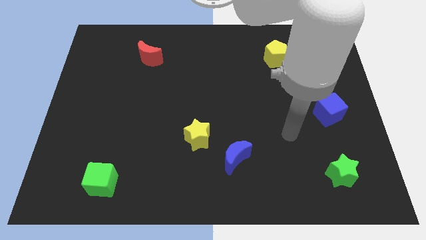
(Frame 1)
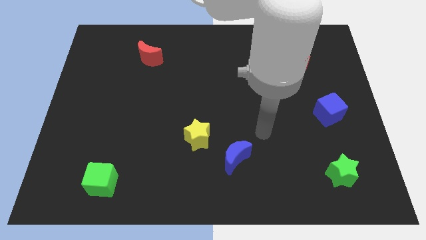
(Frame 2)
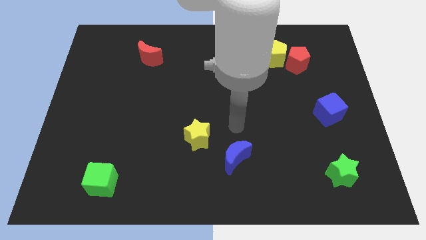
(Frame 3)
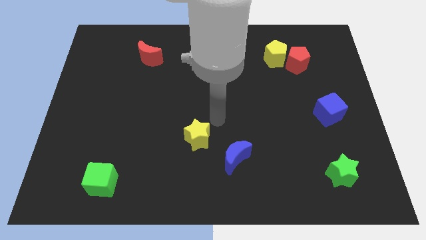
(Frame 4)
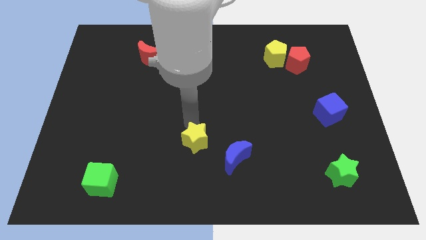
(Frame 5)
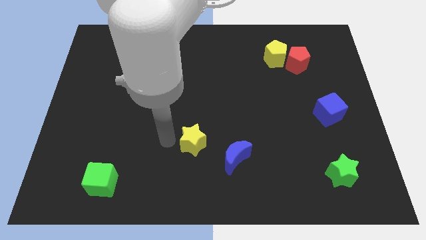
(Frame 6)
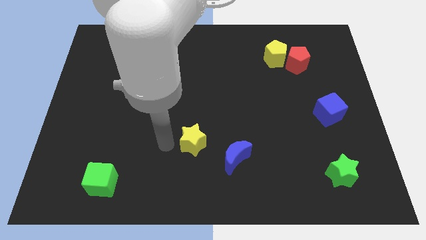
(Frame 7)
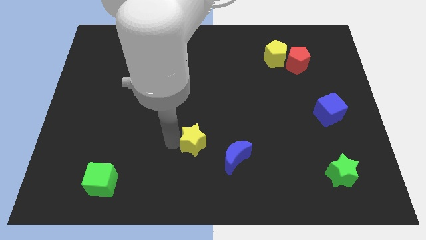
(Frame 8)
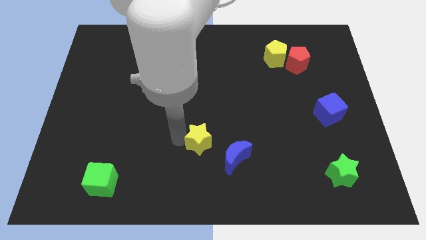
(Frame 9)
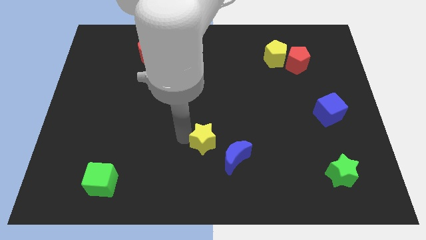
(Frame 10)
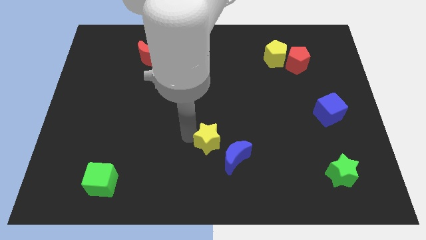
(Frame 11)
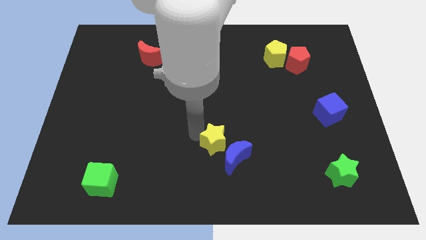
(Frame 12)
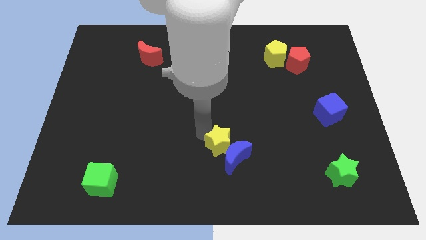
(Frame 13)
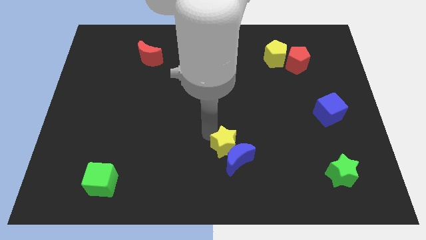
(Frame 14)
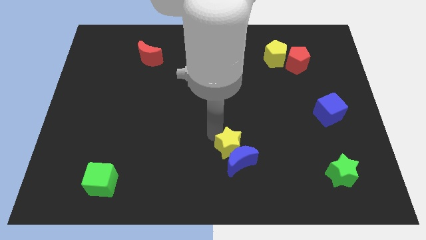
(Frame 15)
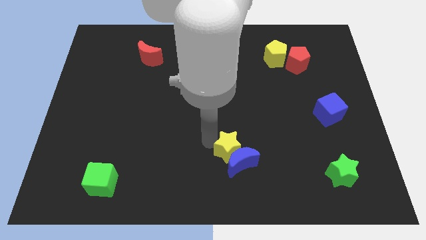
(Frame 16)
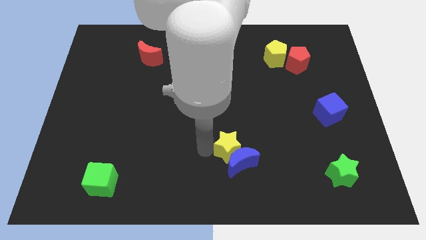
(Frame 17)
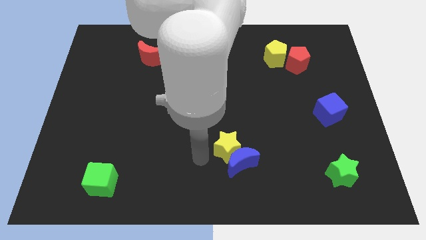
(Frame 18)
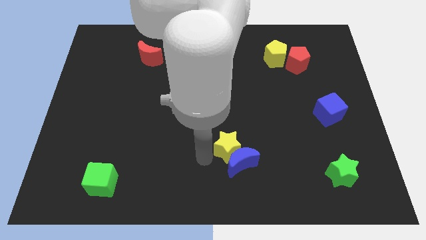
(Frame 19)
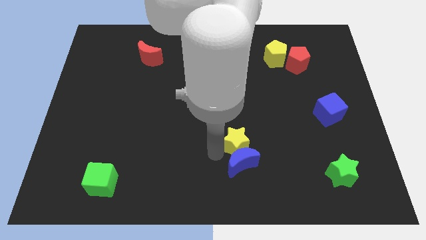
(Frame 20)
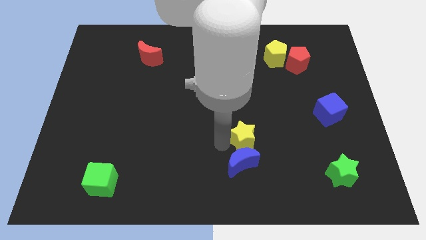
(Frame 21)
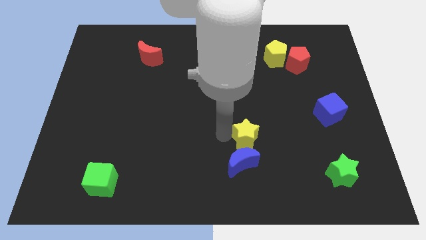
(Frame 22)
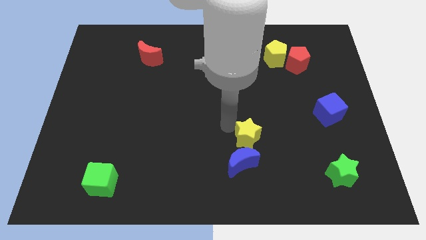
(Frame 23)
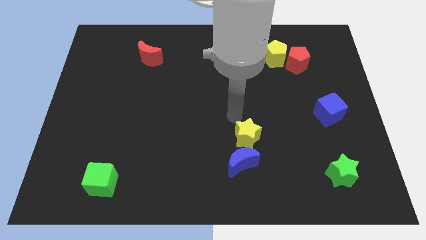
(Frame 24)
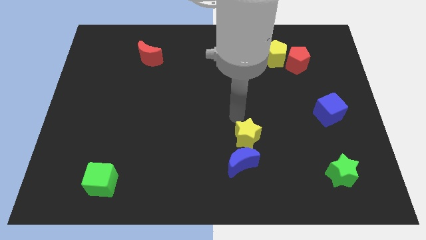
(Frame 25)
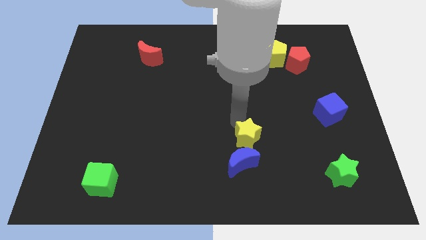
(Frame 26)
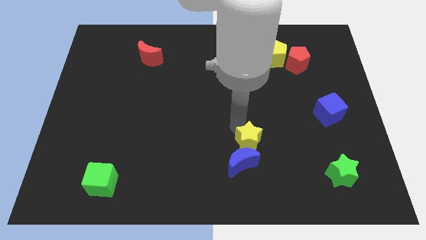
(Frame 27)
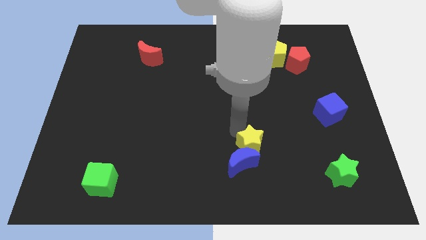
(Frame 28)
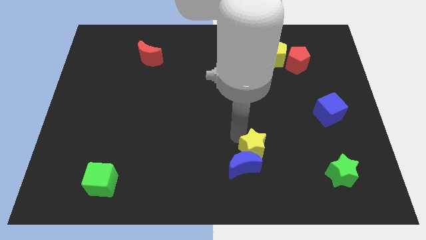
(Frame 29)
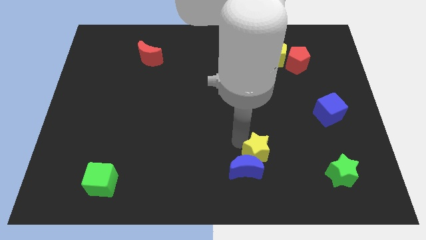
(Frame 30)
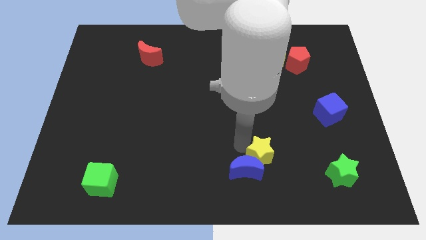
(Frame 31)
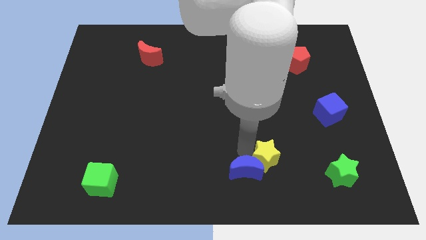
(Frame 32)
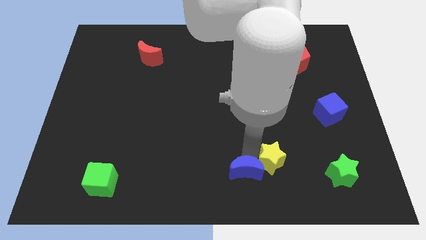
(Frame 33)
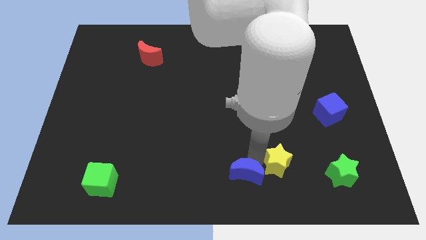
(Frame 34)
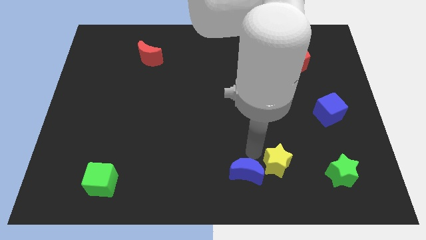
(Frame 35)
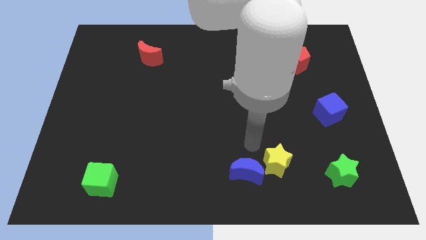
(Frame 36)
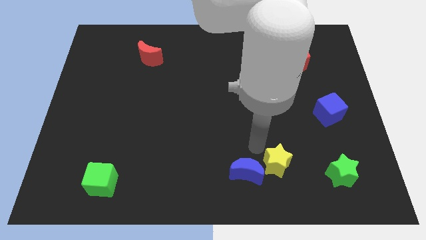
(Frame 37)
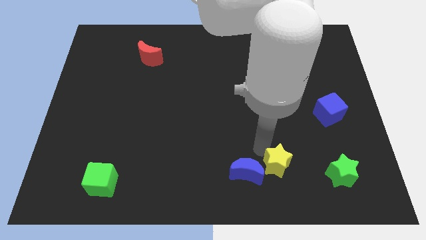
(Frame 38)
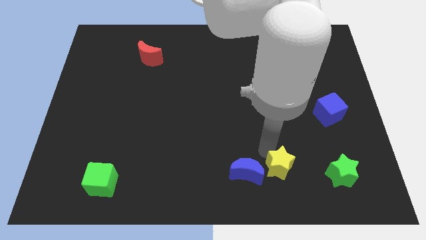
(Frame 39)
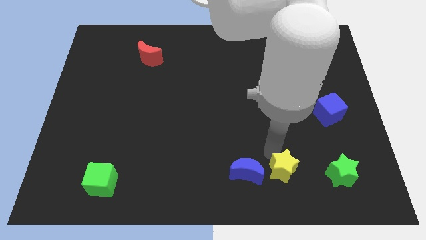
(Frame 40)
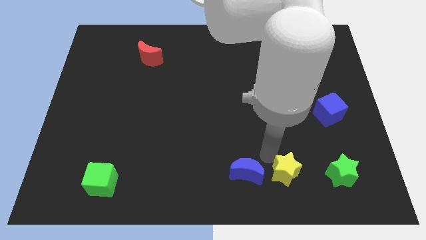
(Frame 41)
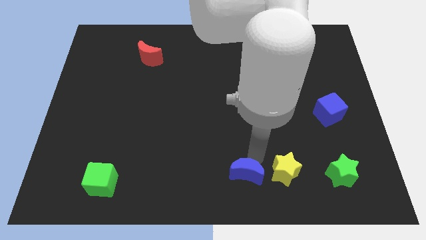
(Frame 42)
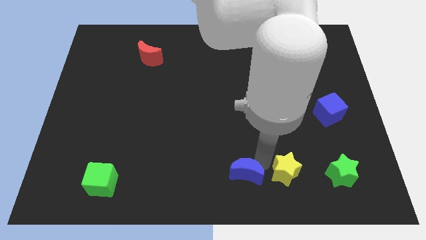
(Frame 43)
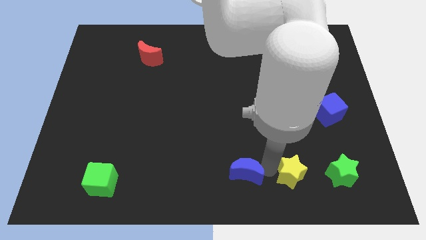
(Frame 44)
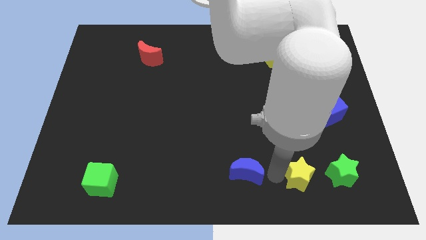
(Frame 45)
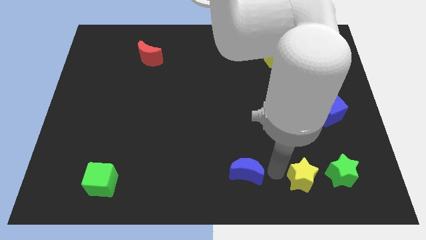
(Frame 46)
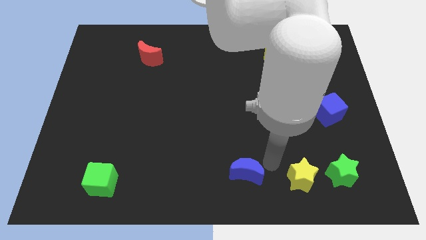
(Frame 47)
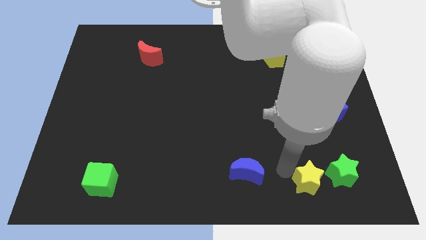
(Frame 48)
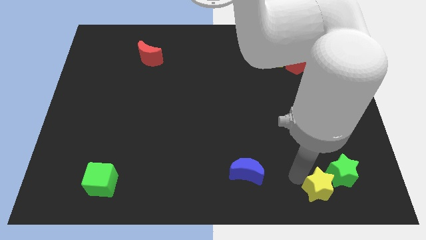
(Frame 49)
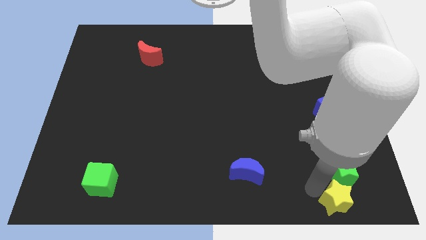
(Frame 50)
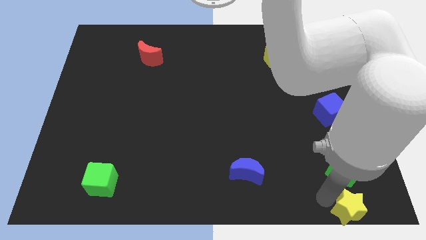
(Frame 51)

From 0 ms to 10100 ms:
push the yellow star to the bottom right

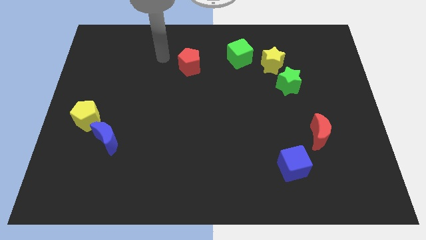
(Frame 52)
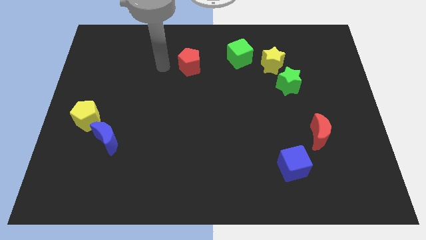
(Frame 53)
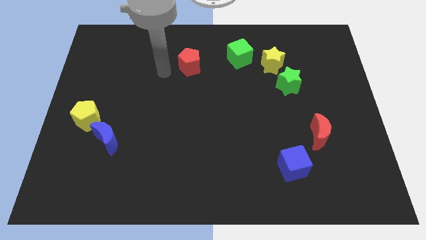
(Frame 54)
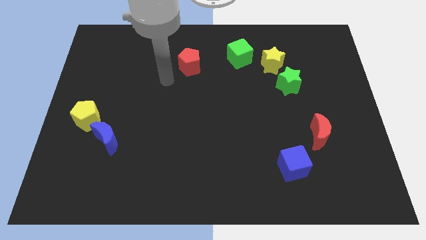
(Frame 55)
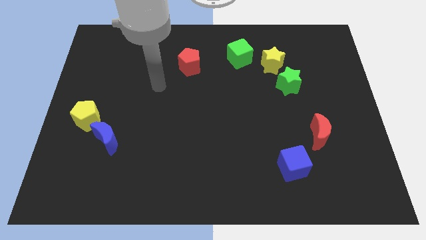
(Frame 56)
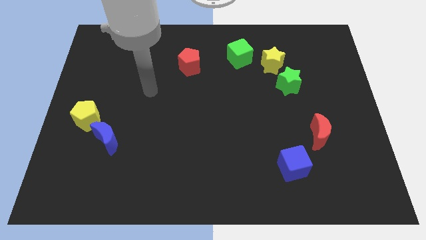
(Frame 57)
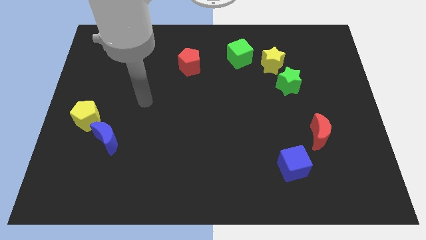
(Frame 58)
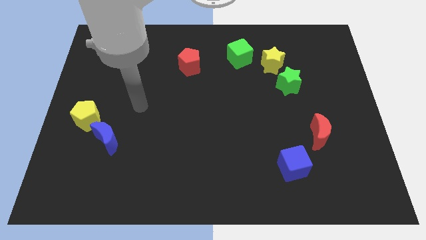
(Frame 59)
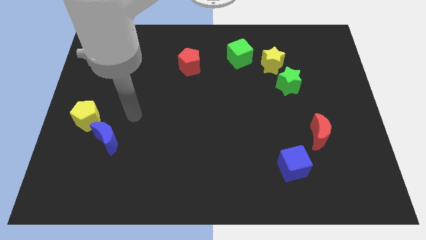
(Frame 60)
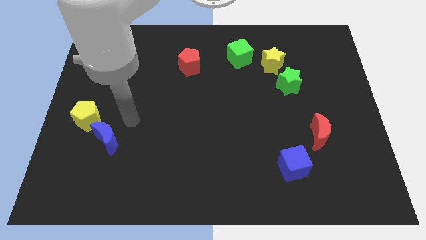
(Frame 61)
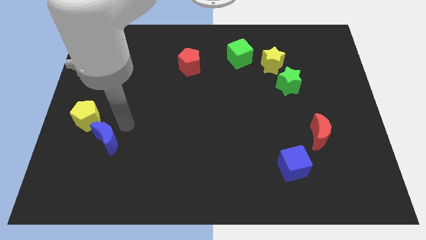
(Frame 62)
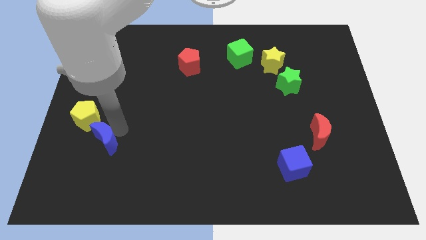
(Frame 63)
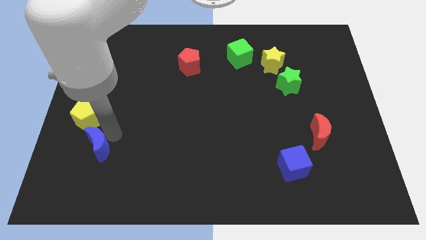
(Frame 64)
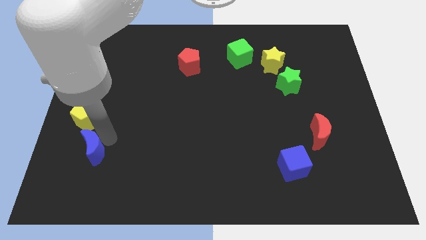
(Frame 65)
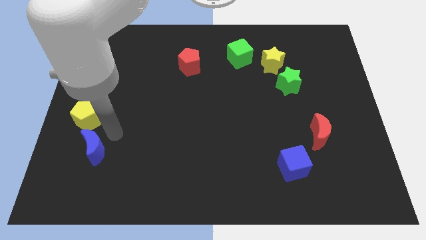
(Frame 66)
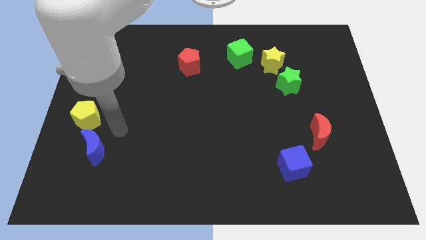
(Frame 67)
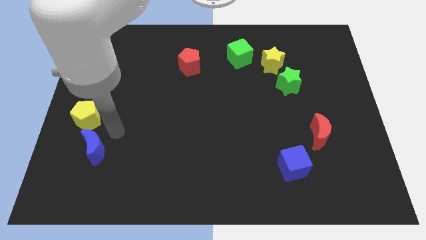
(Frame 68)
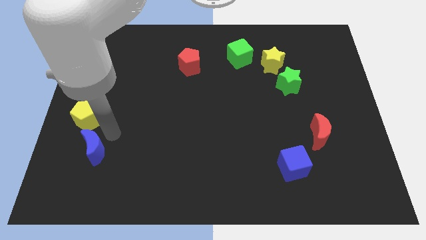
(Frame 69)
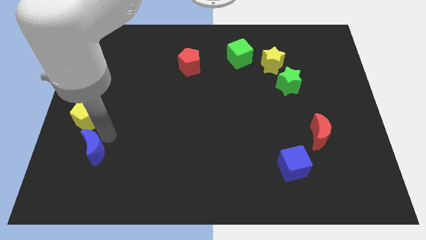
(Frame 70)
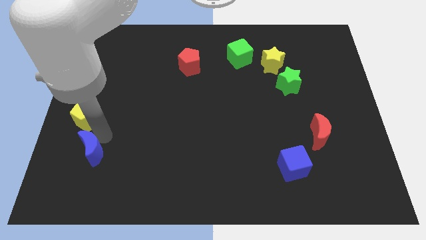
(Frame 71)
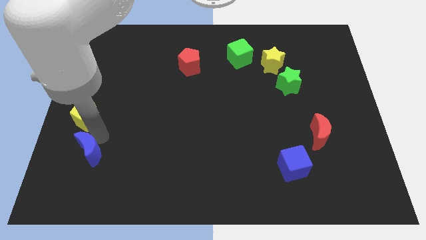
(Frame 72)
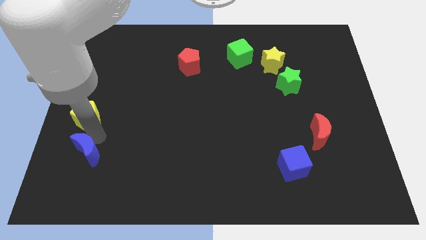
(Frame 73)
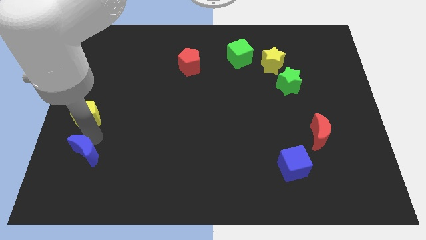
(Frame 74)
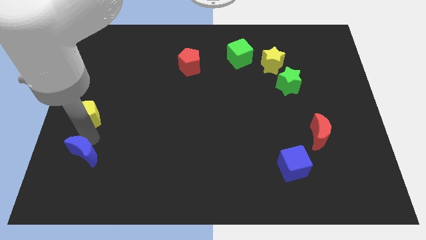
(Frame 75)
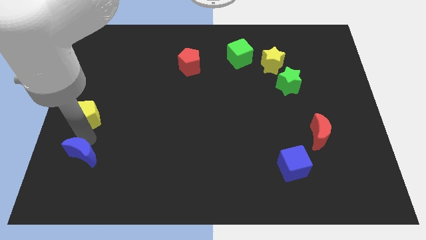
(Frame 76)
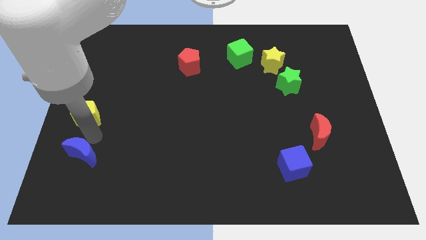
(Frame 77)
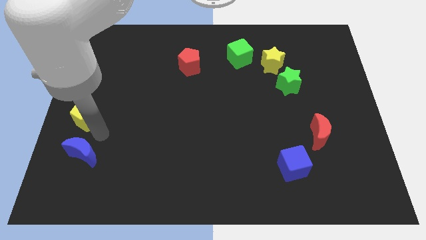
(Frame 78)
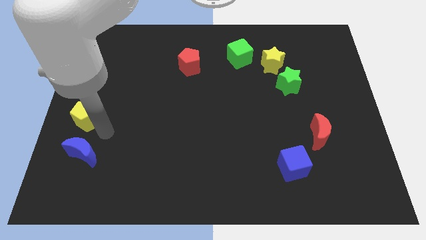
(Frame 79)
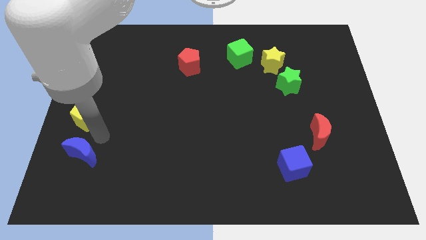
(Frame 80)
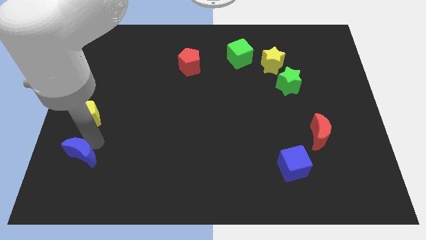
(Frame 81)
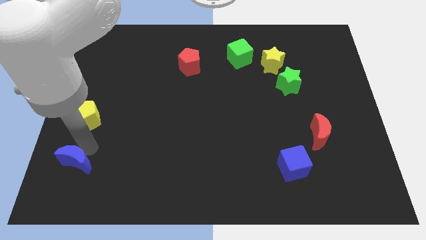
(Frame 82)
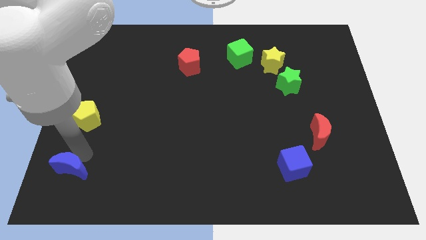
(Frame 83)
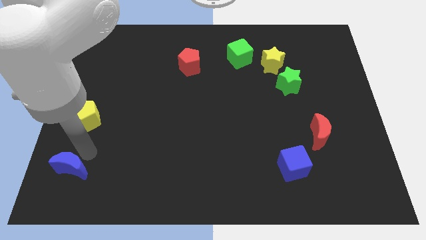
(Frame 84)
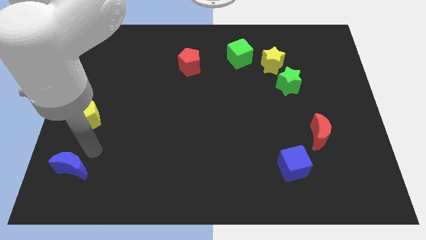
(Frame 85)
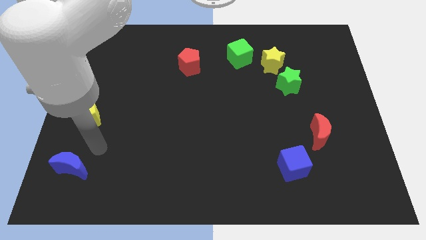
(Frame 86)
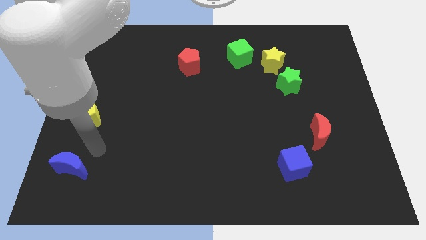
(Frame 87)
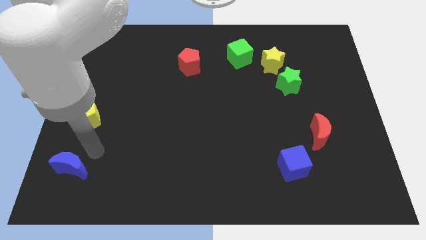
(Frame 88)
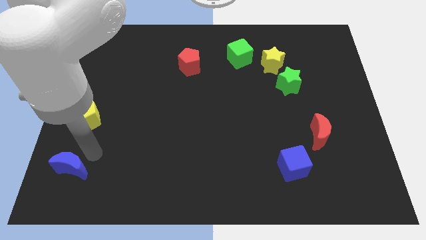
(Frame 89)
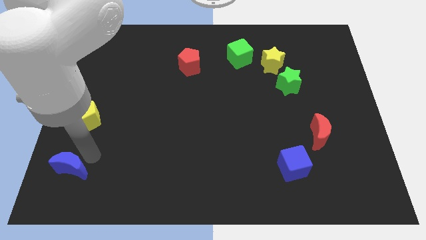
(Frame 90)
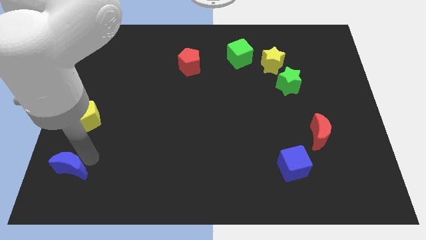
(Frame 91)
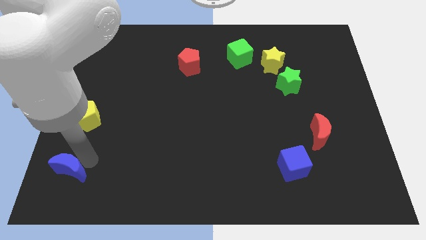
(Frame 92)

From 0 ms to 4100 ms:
move the blue moon to the bottom left of the board
